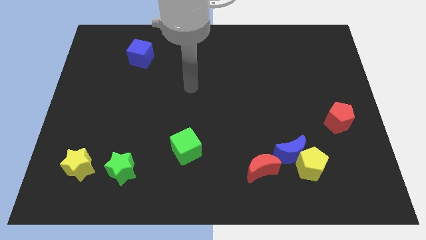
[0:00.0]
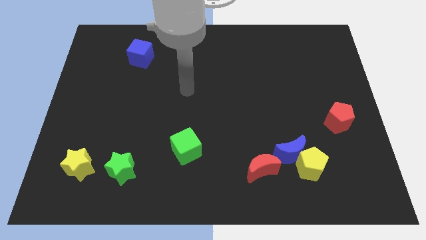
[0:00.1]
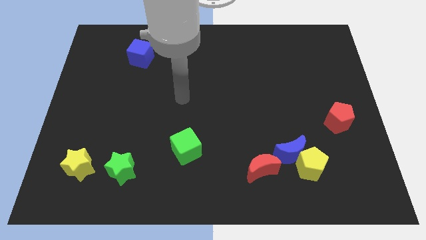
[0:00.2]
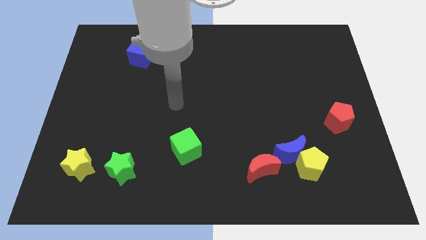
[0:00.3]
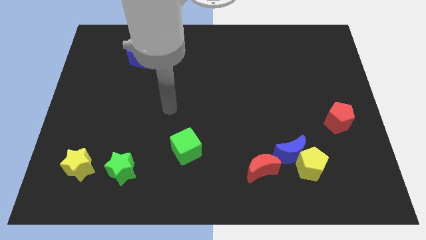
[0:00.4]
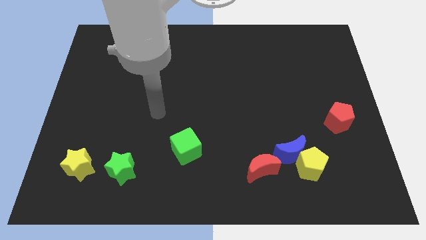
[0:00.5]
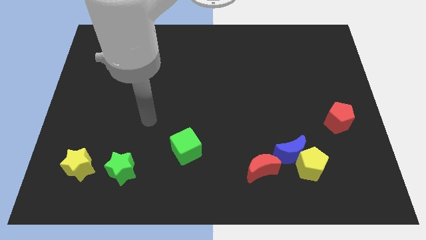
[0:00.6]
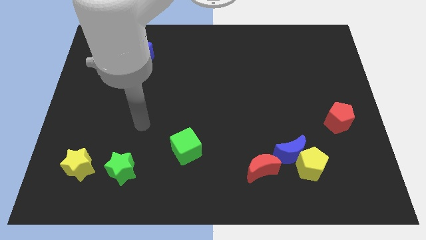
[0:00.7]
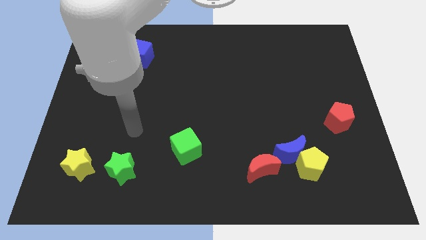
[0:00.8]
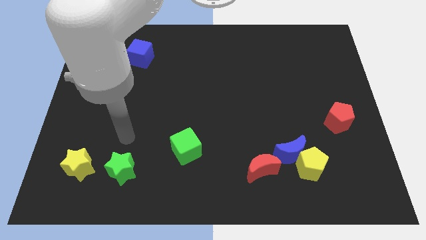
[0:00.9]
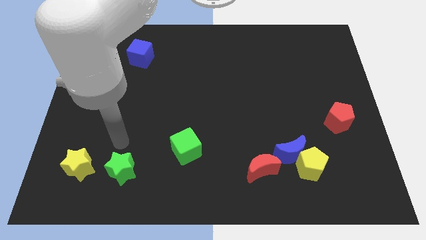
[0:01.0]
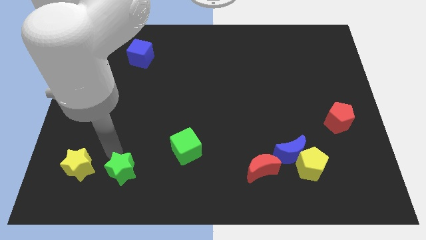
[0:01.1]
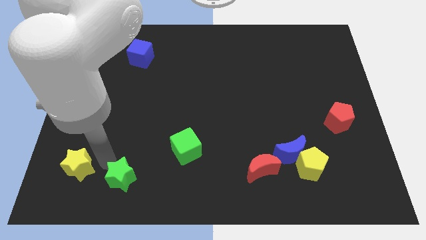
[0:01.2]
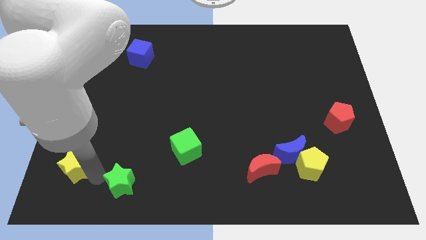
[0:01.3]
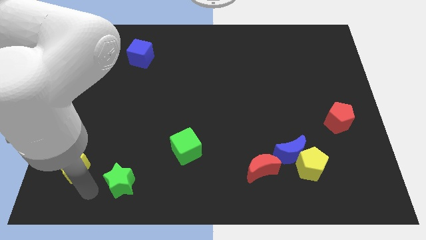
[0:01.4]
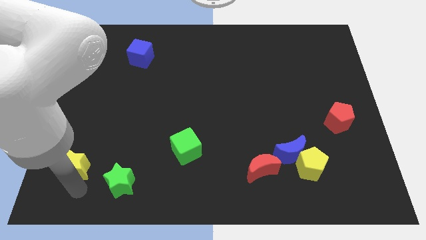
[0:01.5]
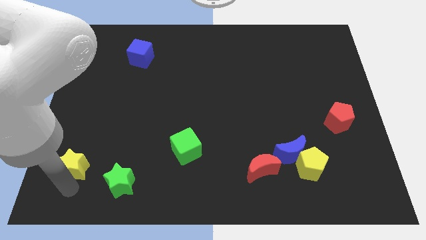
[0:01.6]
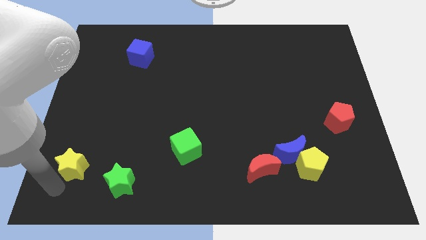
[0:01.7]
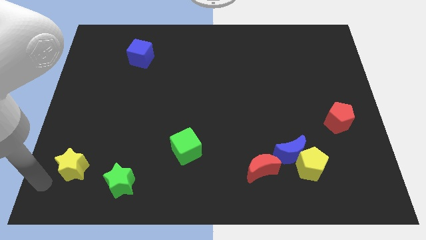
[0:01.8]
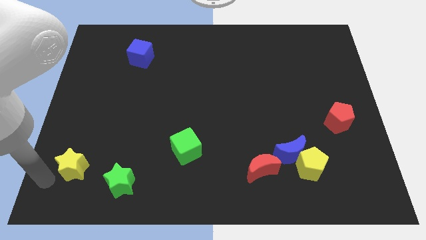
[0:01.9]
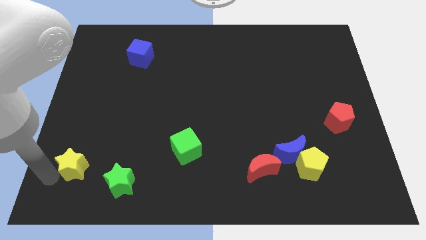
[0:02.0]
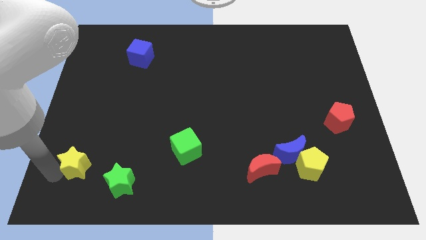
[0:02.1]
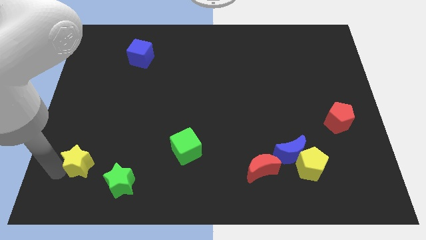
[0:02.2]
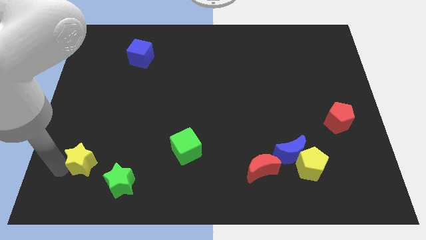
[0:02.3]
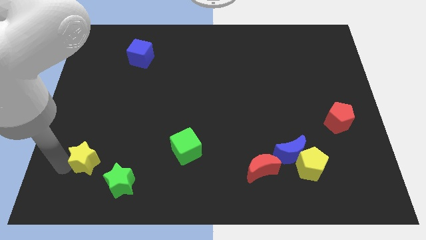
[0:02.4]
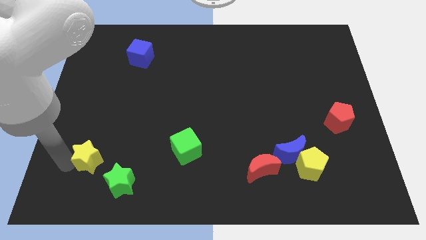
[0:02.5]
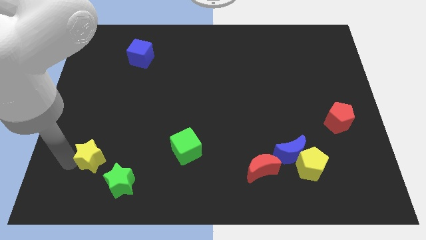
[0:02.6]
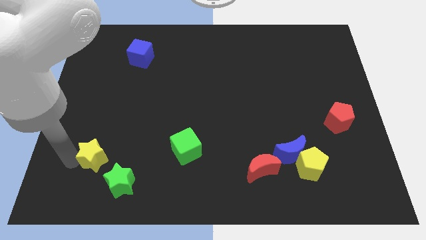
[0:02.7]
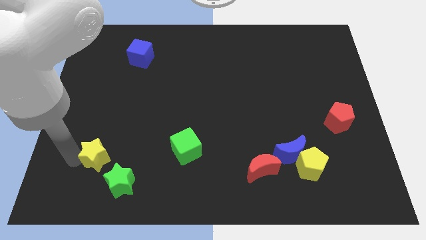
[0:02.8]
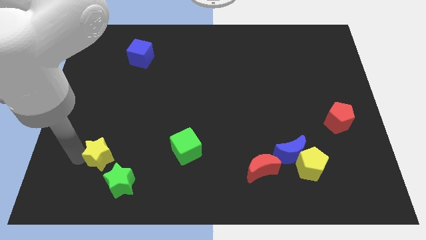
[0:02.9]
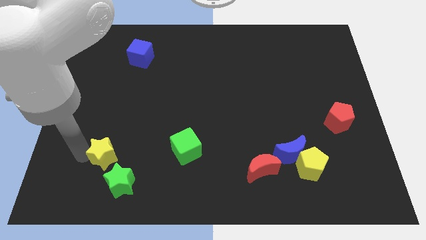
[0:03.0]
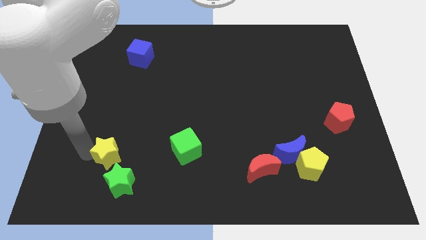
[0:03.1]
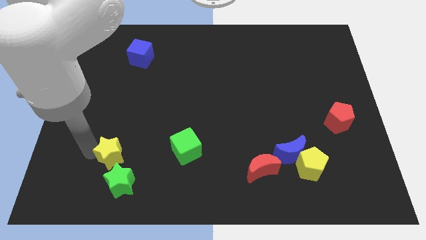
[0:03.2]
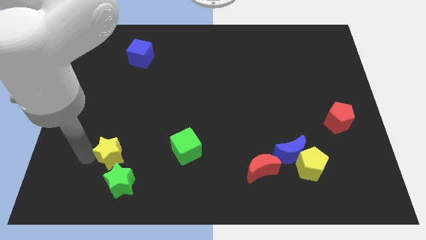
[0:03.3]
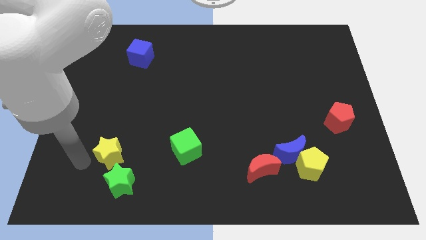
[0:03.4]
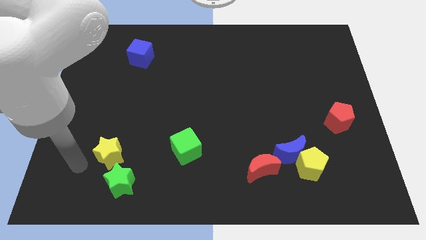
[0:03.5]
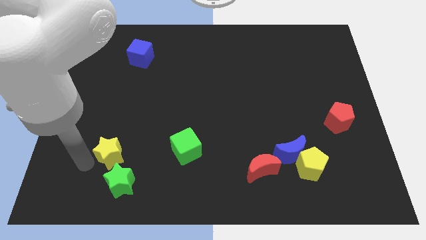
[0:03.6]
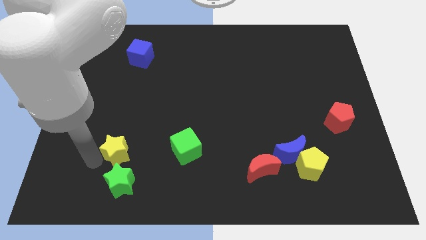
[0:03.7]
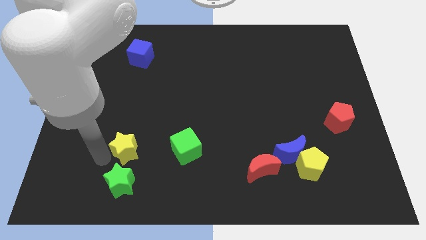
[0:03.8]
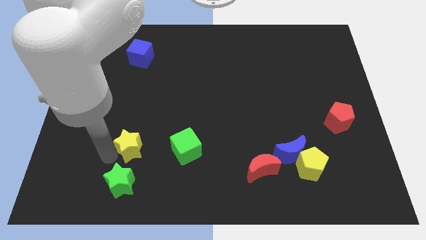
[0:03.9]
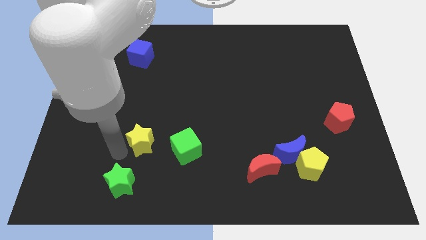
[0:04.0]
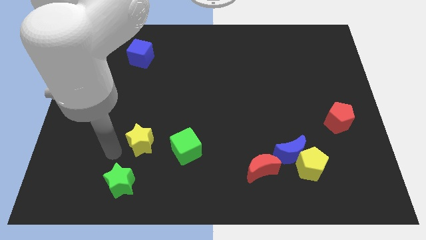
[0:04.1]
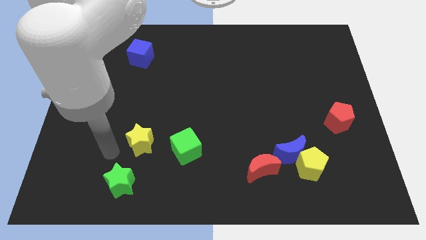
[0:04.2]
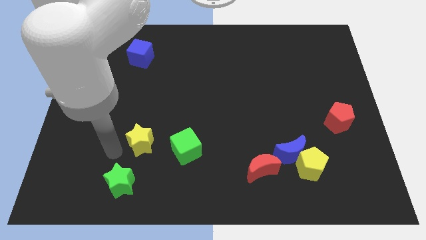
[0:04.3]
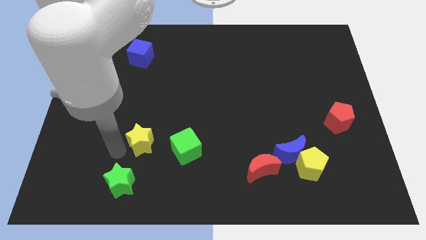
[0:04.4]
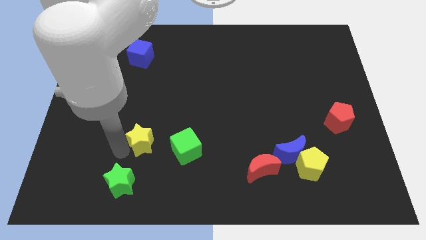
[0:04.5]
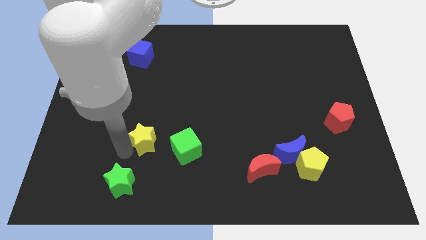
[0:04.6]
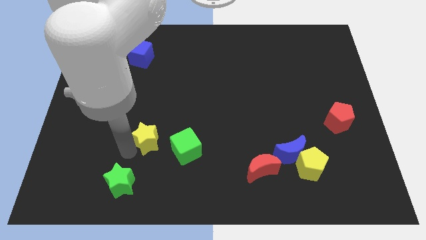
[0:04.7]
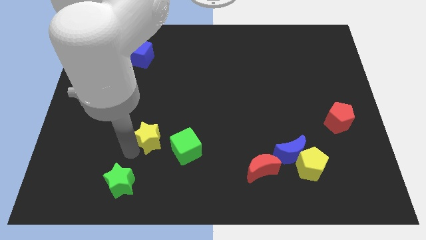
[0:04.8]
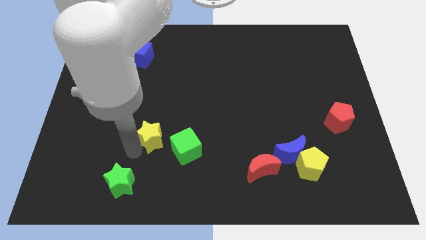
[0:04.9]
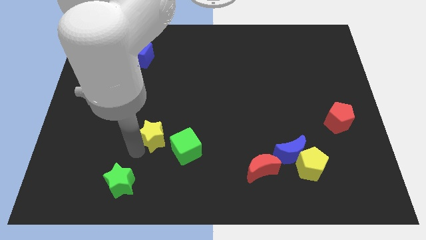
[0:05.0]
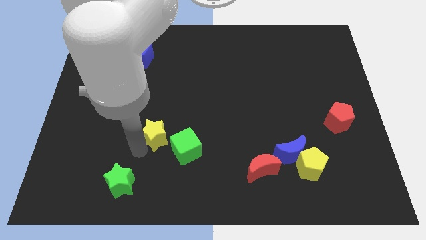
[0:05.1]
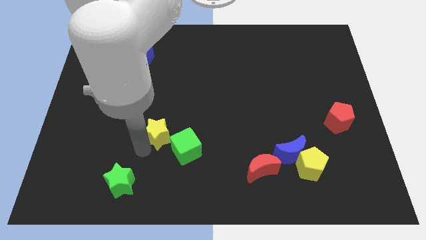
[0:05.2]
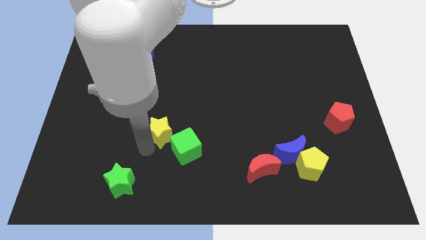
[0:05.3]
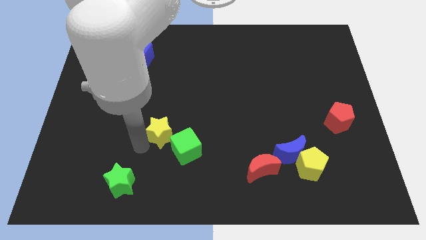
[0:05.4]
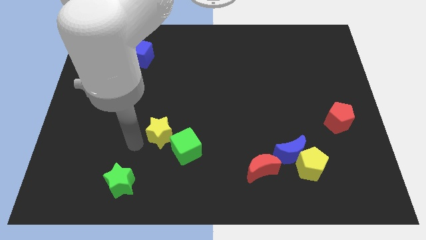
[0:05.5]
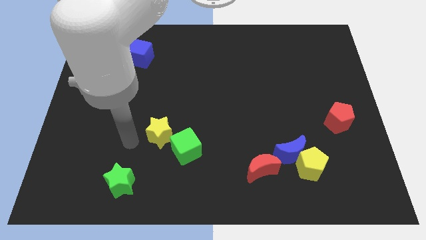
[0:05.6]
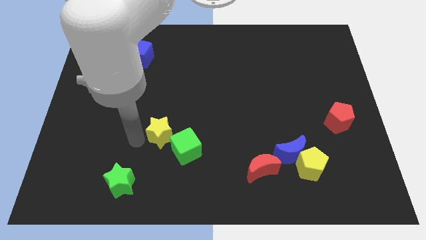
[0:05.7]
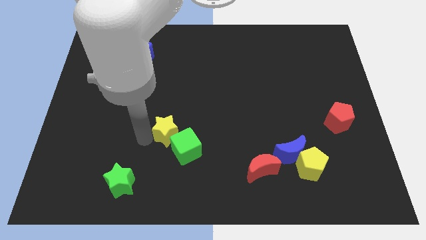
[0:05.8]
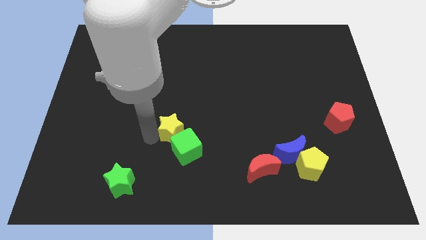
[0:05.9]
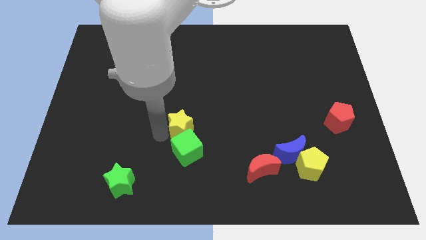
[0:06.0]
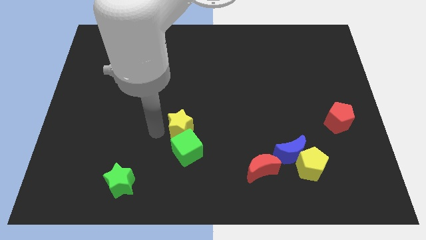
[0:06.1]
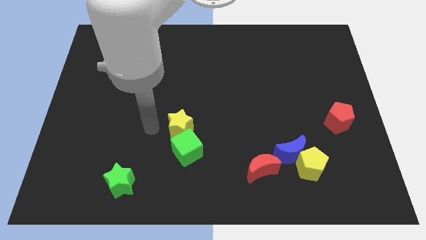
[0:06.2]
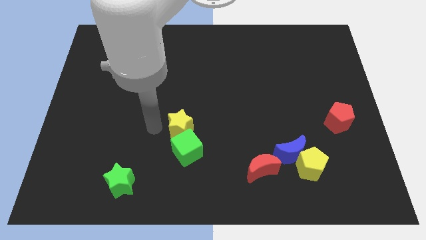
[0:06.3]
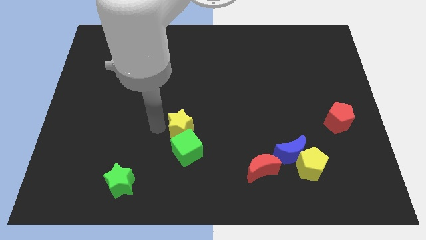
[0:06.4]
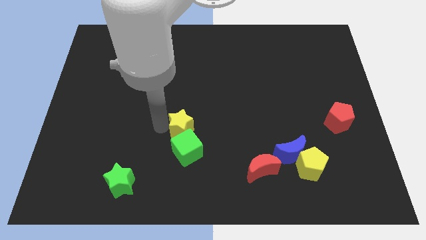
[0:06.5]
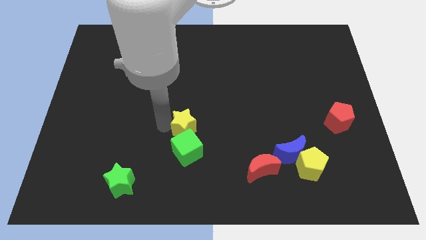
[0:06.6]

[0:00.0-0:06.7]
put the yellow star to the top right of the green cube

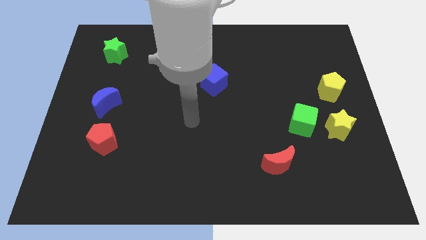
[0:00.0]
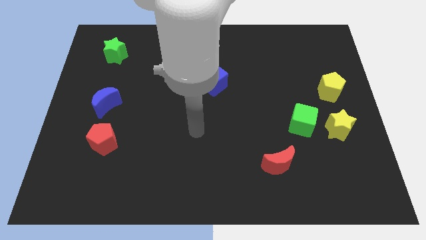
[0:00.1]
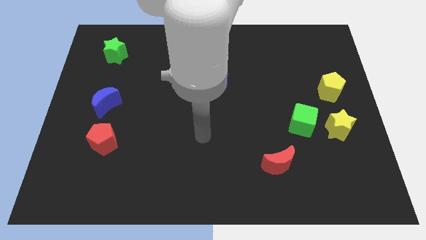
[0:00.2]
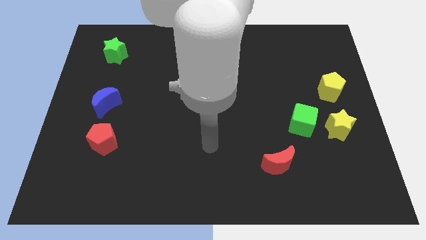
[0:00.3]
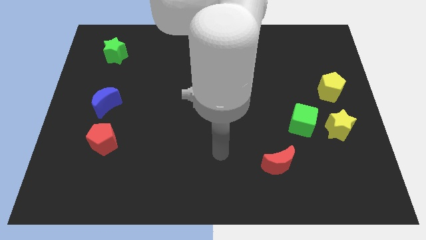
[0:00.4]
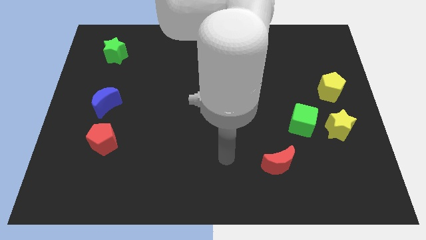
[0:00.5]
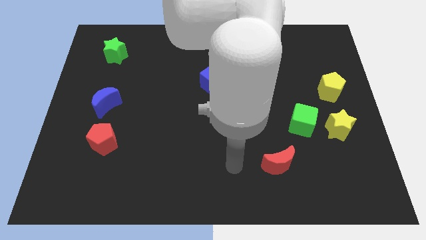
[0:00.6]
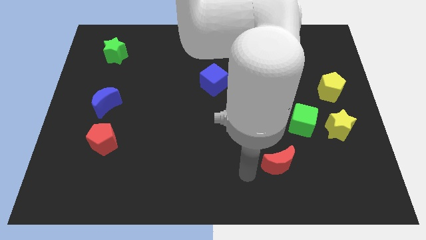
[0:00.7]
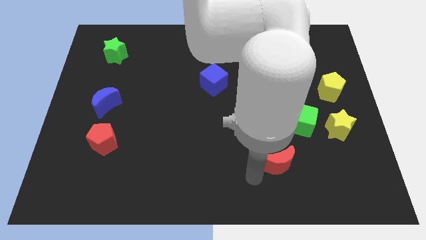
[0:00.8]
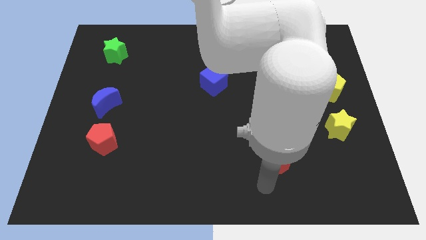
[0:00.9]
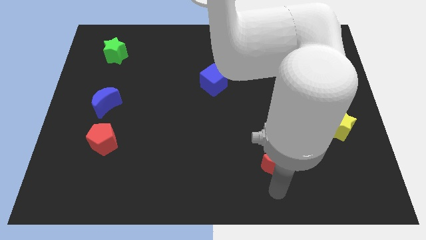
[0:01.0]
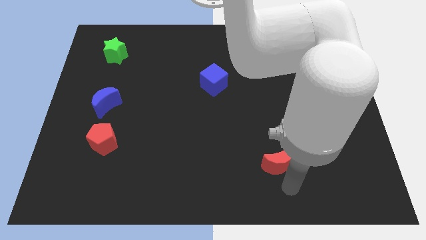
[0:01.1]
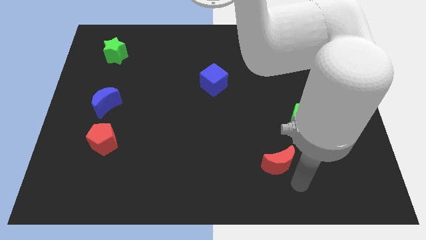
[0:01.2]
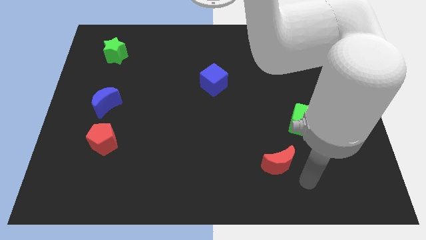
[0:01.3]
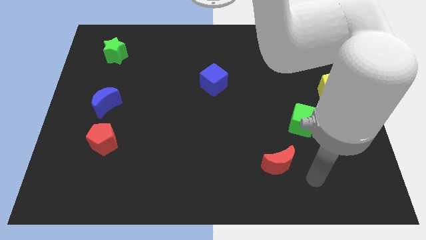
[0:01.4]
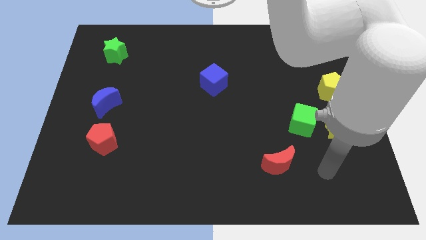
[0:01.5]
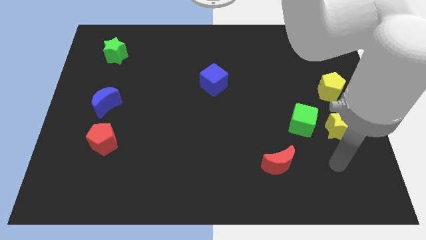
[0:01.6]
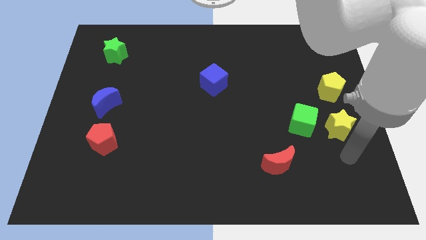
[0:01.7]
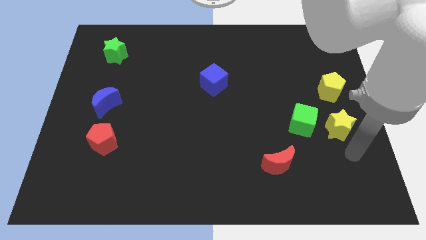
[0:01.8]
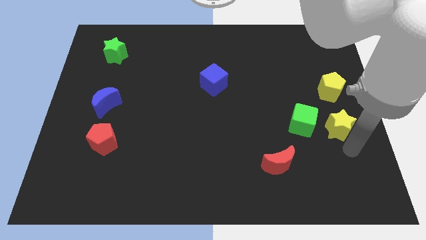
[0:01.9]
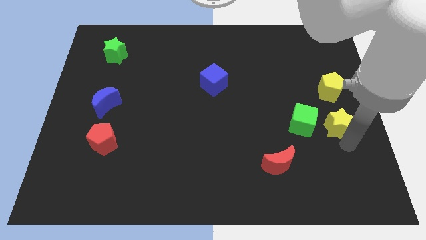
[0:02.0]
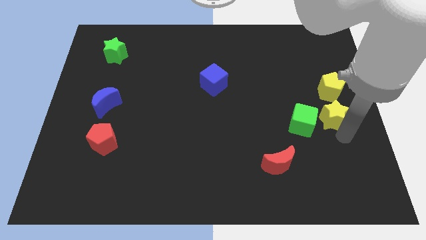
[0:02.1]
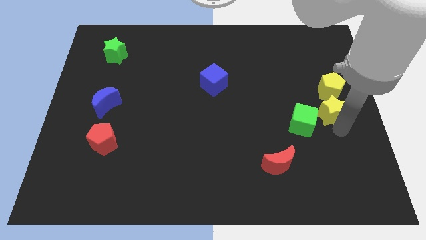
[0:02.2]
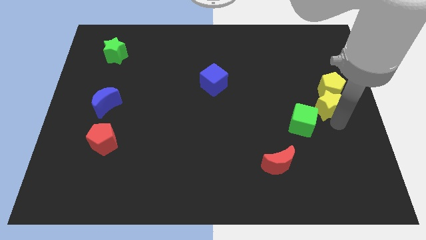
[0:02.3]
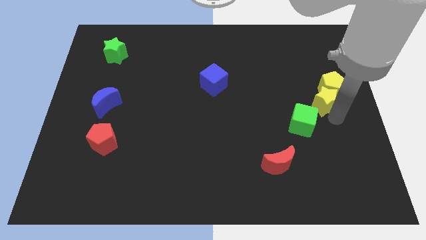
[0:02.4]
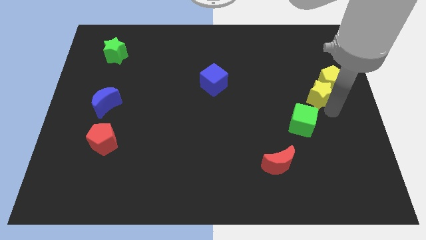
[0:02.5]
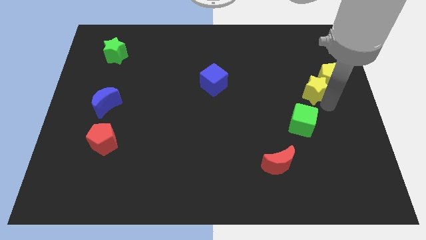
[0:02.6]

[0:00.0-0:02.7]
move the yellow star above the green cube
